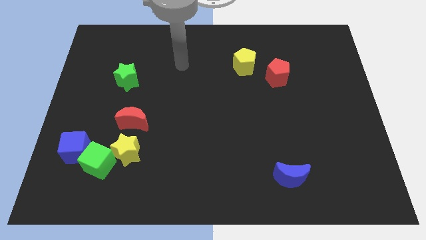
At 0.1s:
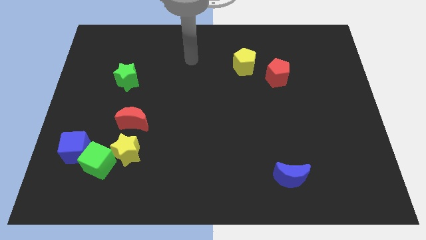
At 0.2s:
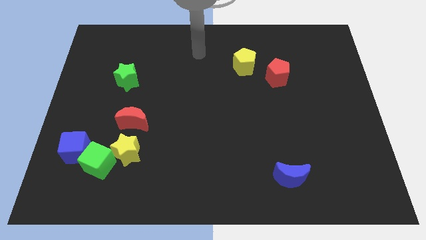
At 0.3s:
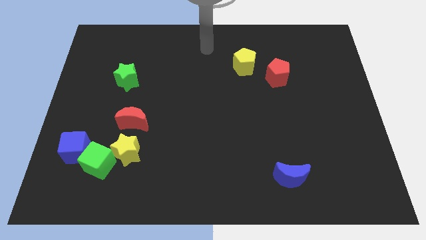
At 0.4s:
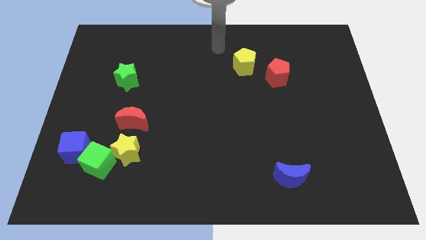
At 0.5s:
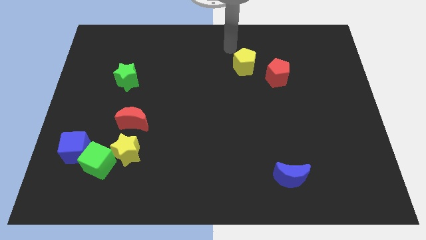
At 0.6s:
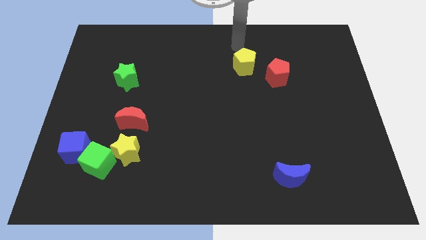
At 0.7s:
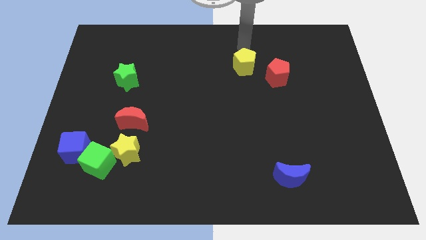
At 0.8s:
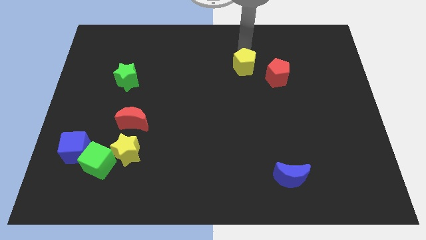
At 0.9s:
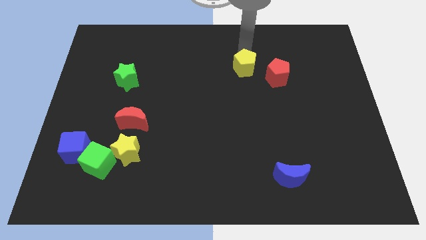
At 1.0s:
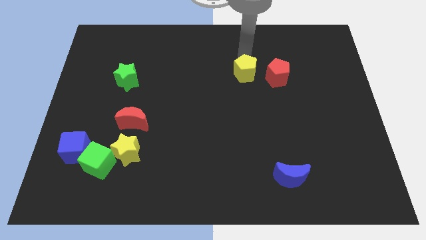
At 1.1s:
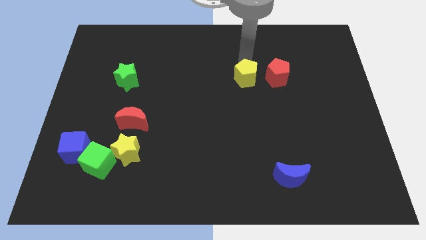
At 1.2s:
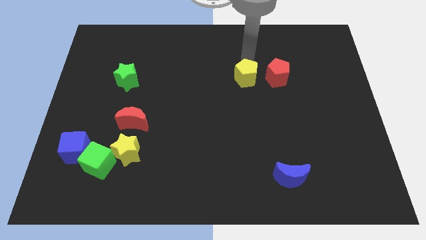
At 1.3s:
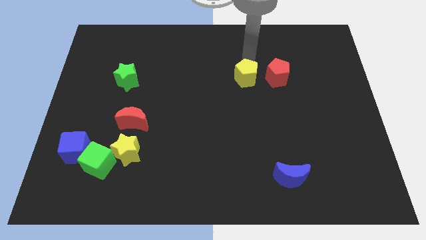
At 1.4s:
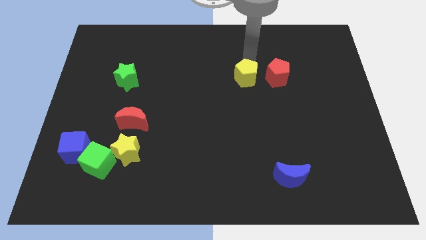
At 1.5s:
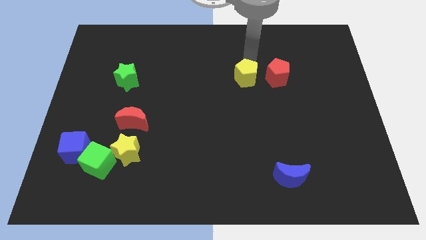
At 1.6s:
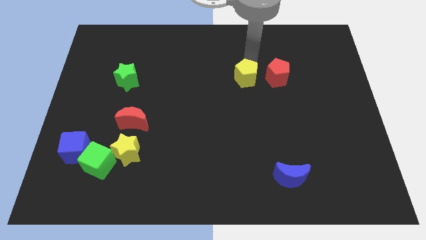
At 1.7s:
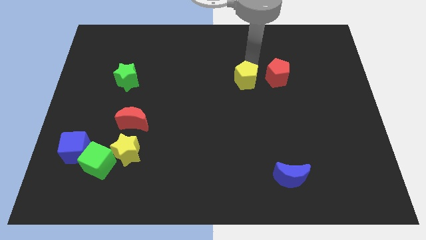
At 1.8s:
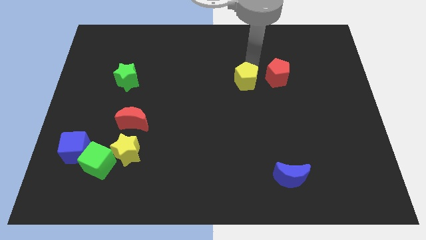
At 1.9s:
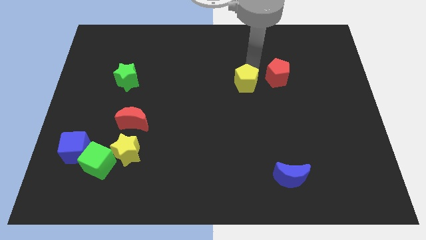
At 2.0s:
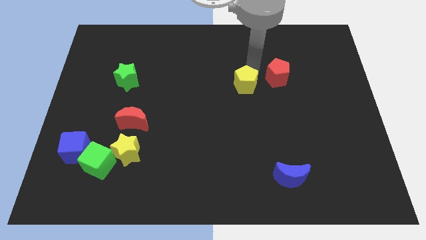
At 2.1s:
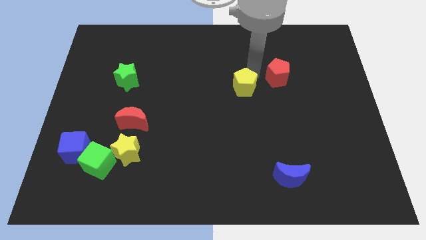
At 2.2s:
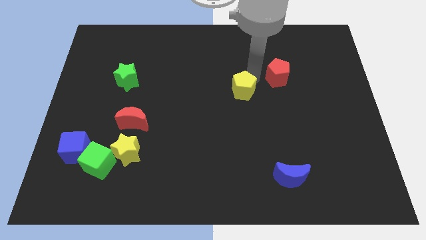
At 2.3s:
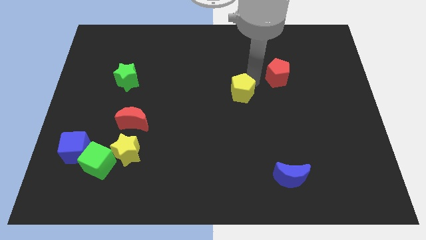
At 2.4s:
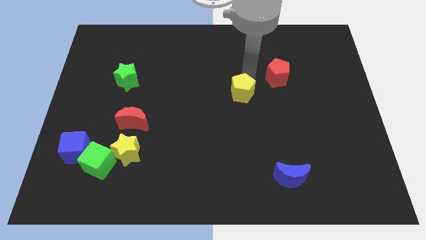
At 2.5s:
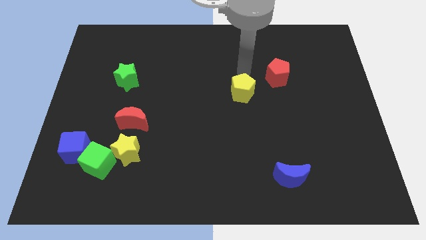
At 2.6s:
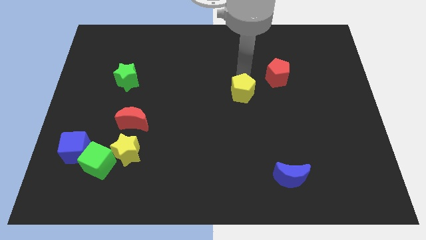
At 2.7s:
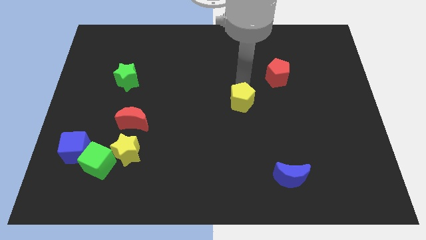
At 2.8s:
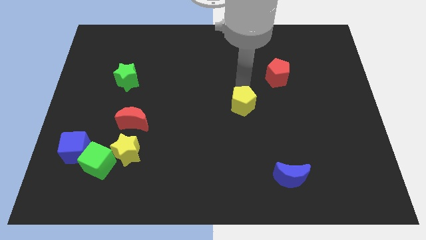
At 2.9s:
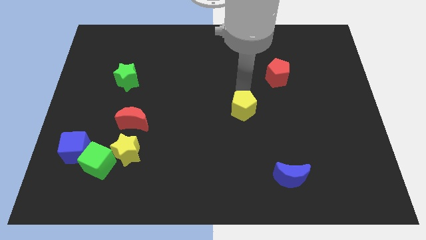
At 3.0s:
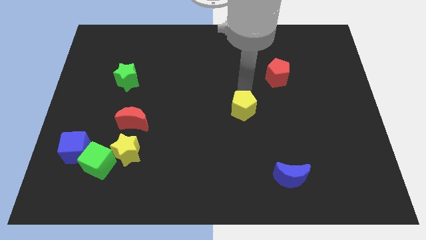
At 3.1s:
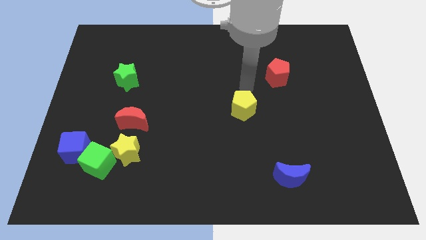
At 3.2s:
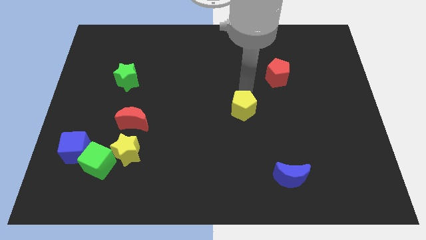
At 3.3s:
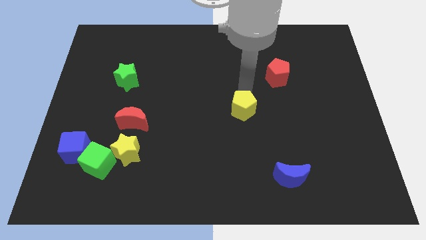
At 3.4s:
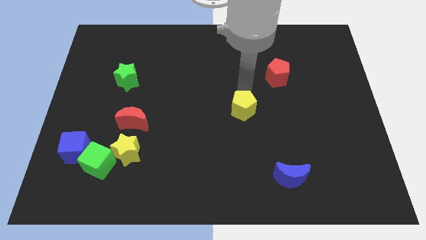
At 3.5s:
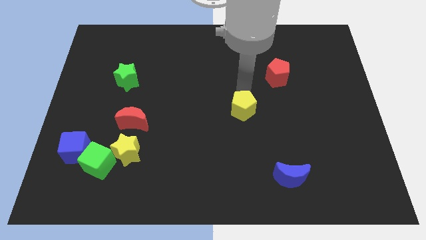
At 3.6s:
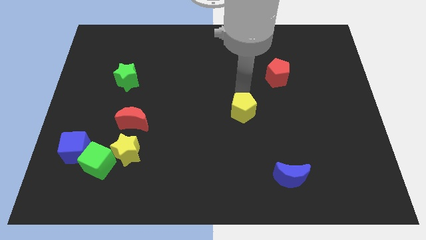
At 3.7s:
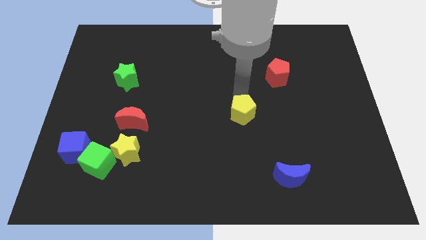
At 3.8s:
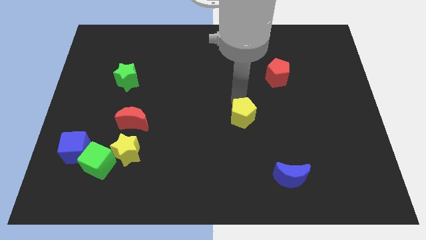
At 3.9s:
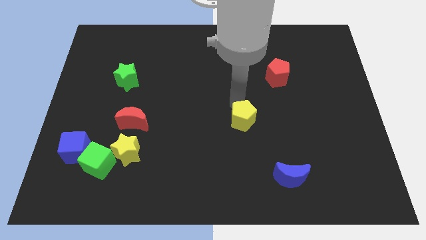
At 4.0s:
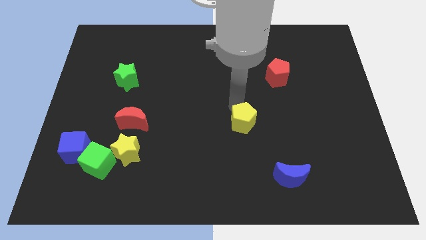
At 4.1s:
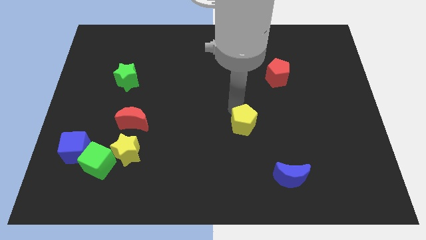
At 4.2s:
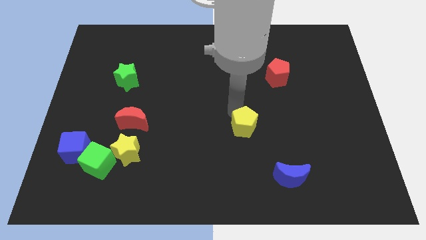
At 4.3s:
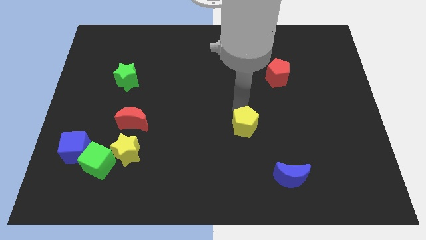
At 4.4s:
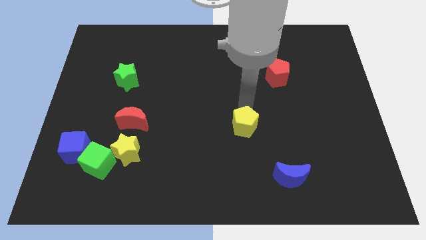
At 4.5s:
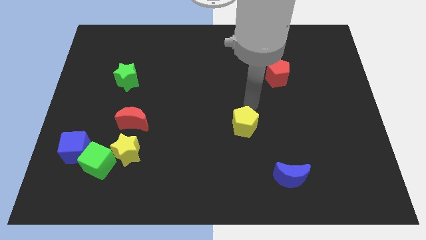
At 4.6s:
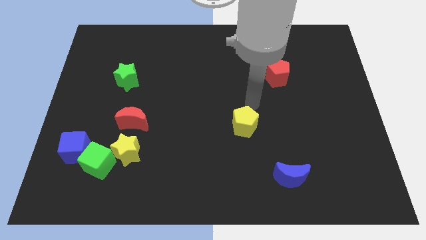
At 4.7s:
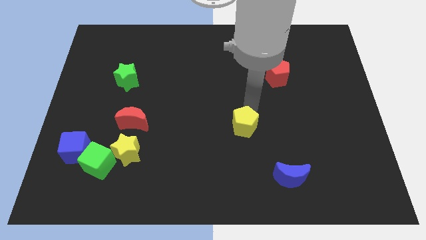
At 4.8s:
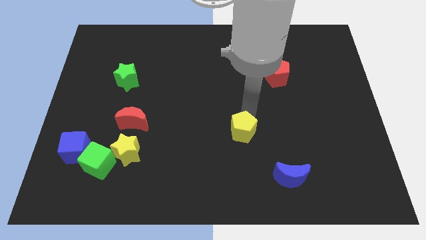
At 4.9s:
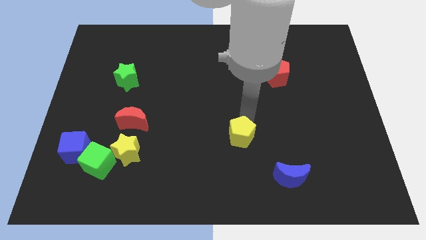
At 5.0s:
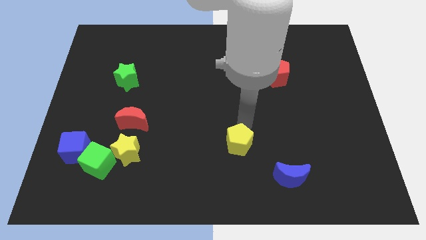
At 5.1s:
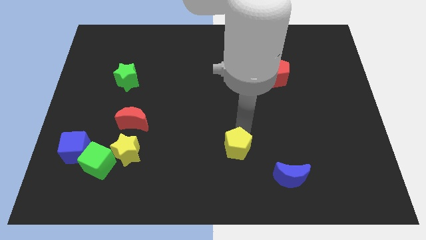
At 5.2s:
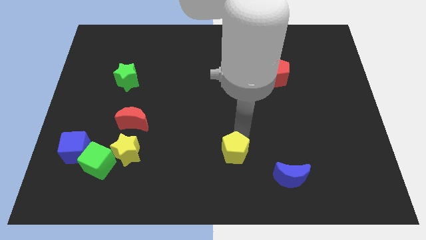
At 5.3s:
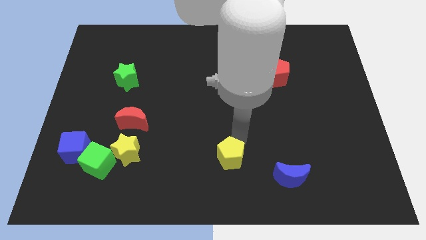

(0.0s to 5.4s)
slide the yellow pentagon to the bottom side

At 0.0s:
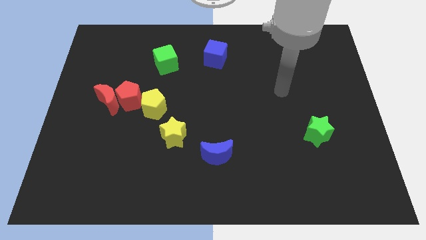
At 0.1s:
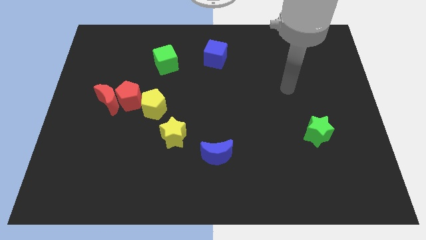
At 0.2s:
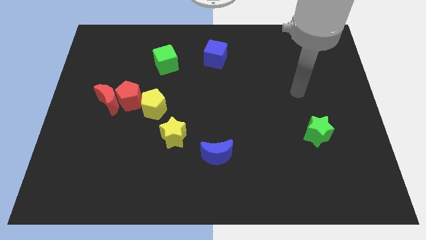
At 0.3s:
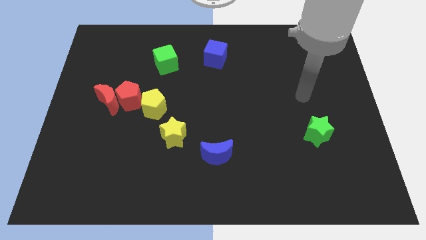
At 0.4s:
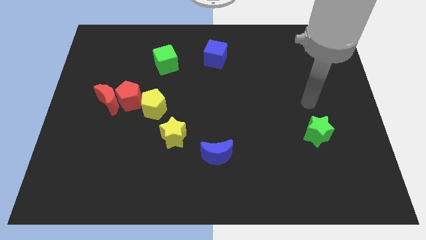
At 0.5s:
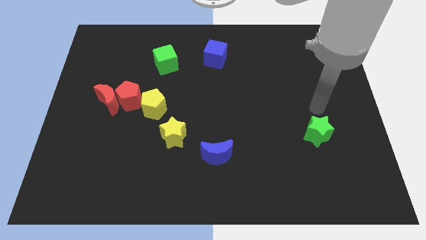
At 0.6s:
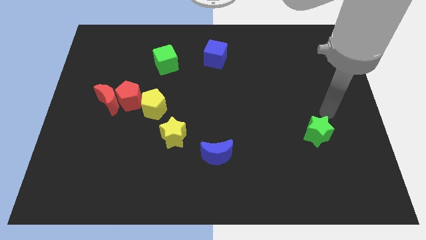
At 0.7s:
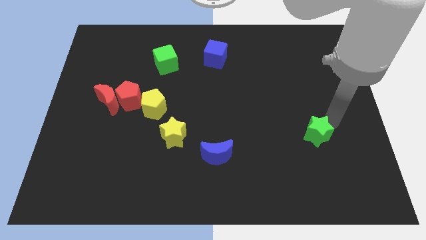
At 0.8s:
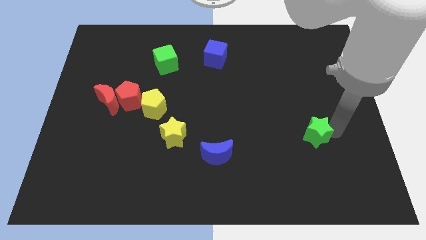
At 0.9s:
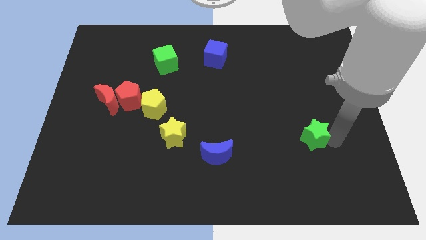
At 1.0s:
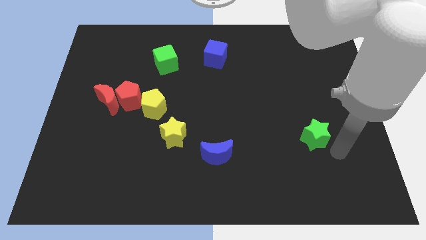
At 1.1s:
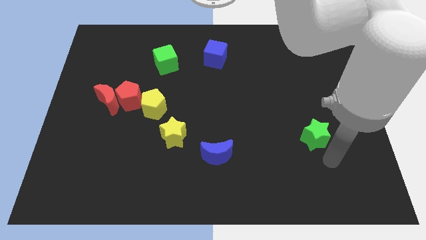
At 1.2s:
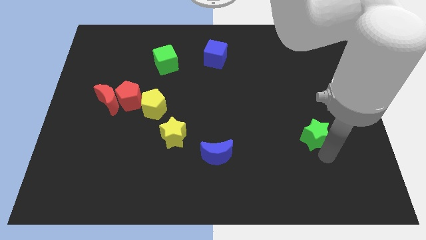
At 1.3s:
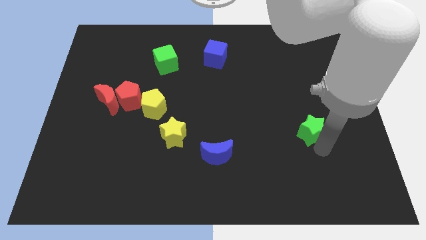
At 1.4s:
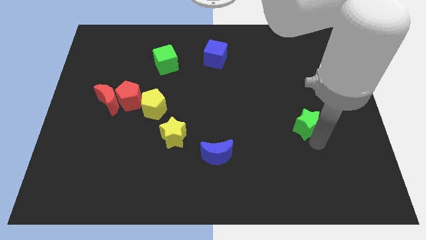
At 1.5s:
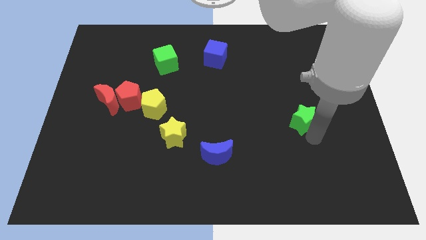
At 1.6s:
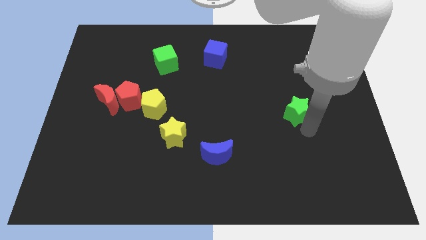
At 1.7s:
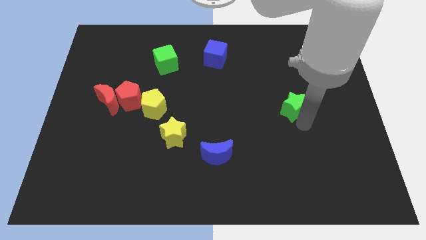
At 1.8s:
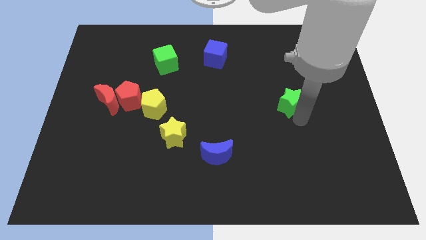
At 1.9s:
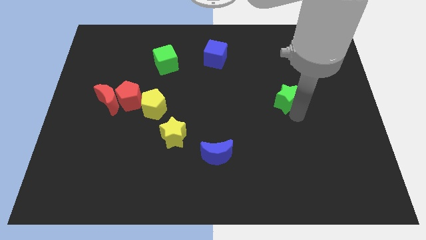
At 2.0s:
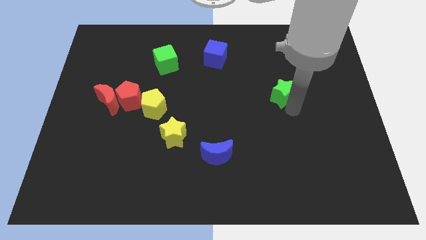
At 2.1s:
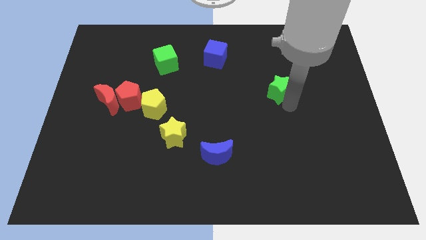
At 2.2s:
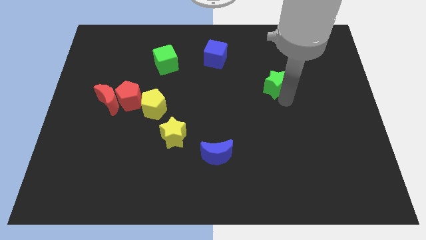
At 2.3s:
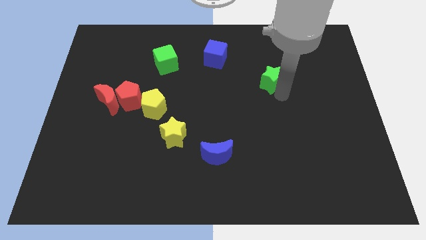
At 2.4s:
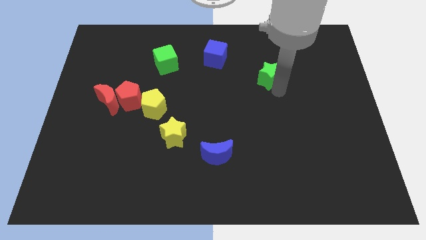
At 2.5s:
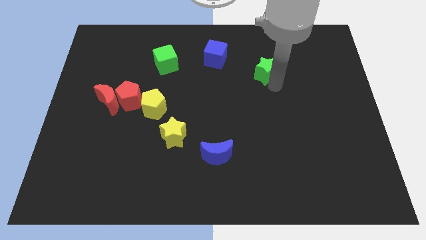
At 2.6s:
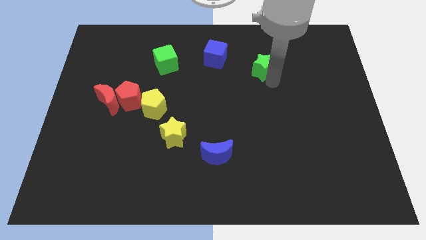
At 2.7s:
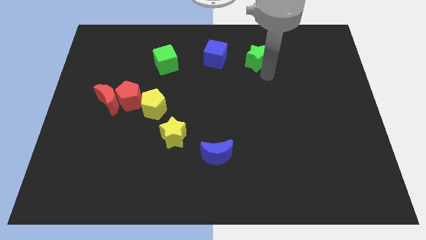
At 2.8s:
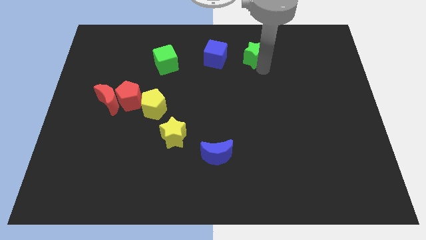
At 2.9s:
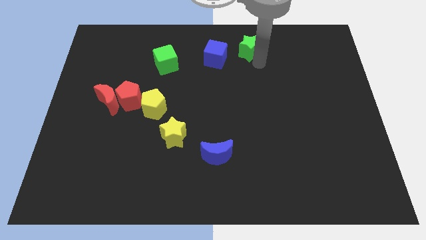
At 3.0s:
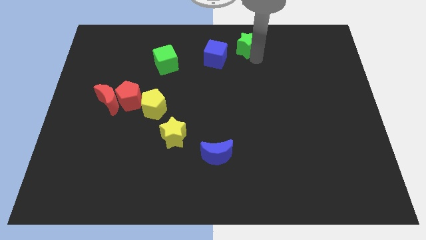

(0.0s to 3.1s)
move the green star to the top
